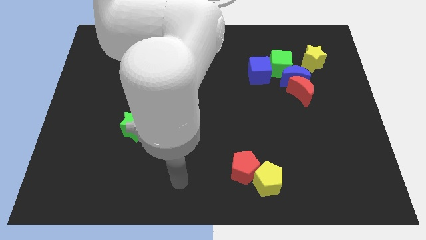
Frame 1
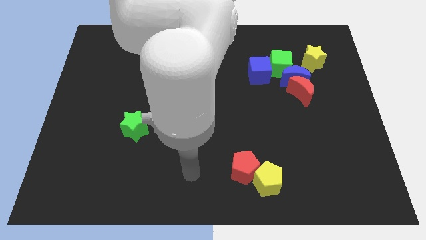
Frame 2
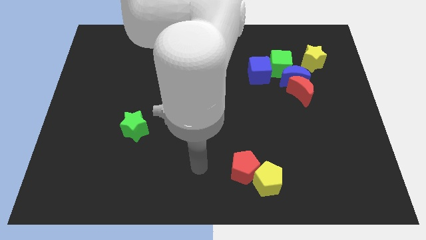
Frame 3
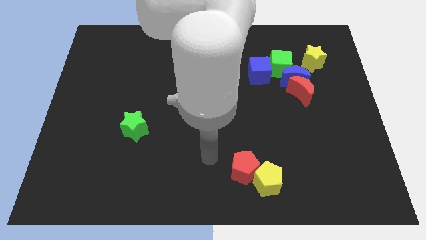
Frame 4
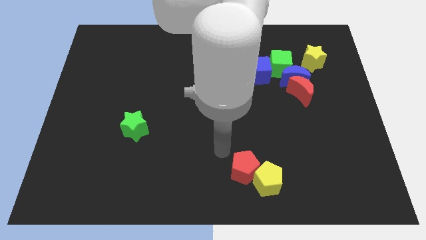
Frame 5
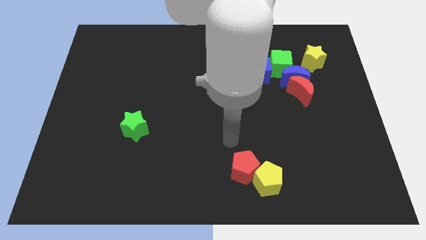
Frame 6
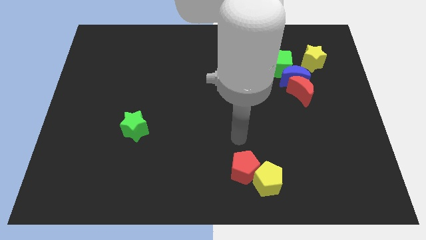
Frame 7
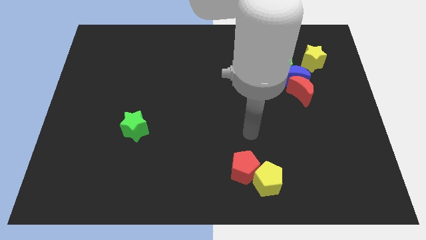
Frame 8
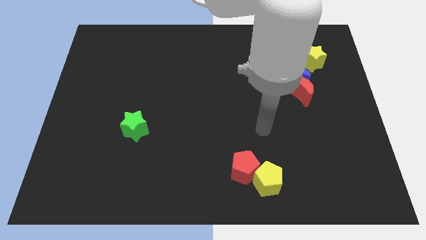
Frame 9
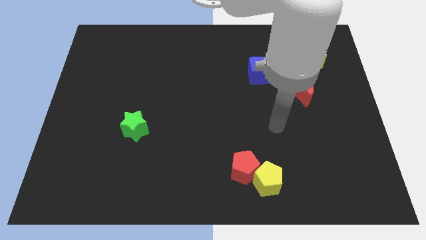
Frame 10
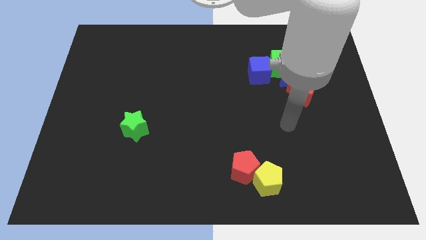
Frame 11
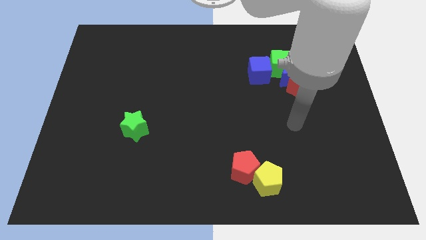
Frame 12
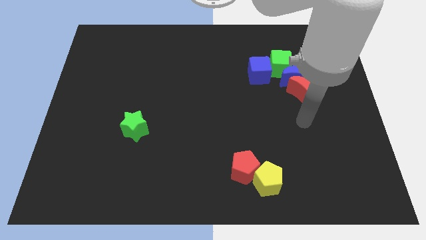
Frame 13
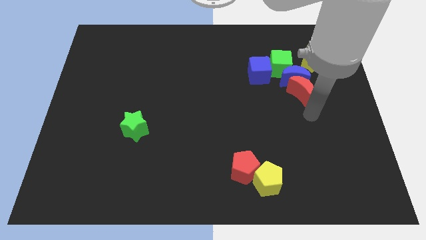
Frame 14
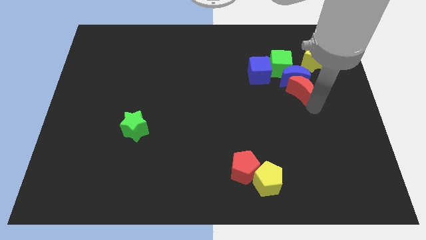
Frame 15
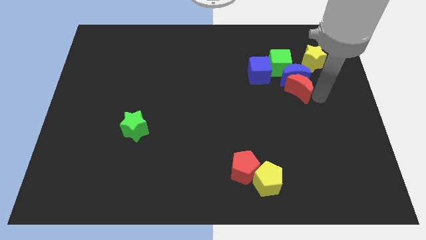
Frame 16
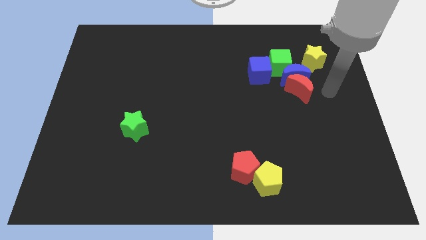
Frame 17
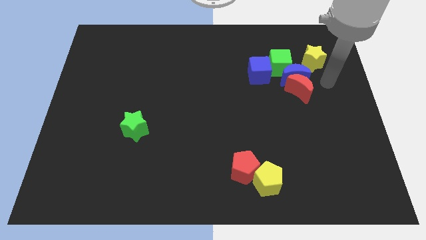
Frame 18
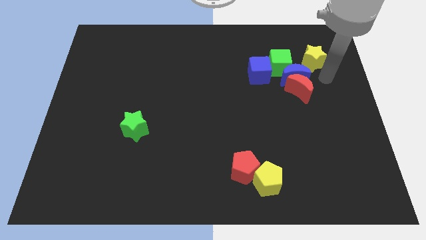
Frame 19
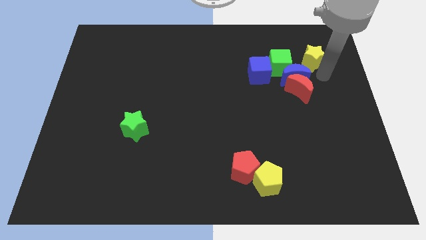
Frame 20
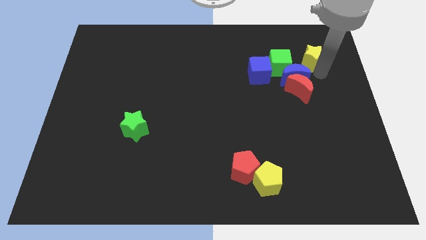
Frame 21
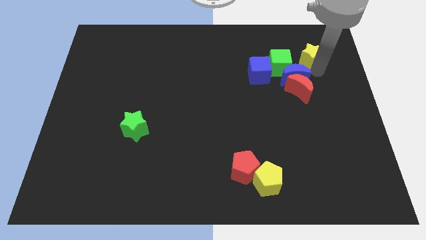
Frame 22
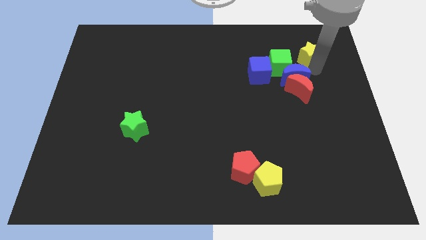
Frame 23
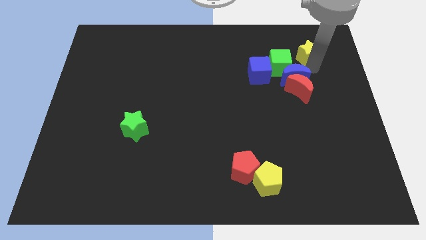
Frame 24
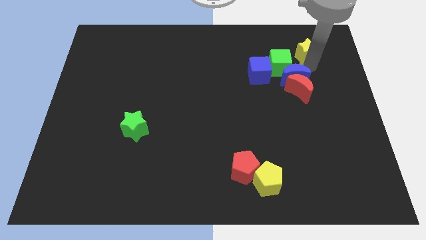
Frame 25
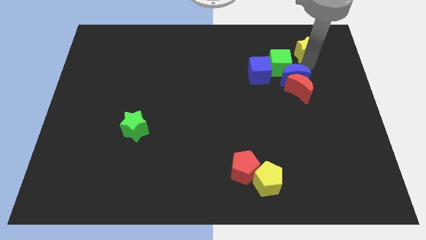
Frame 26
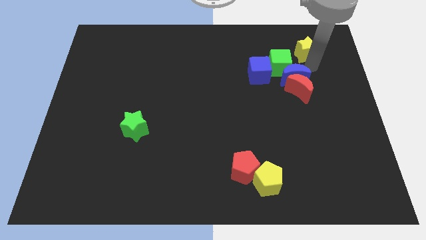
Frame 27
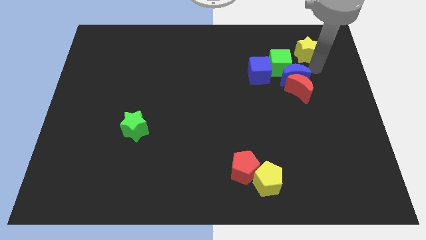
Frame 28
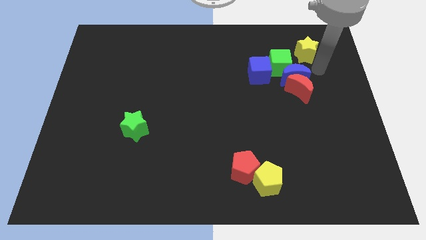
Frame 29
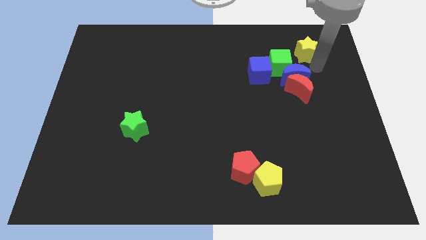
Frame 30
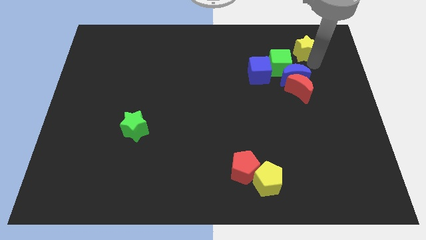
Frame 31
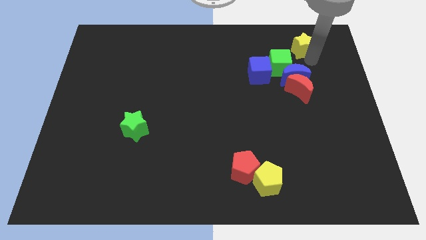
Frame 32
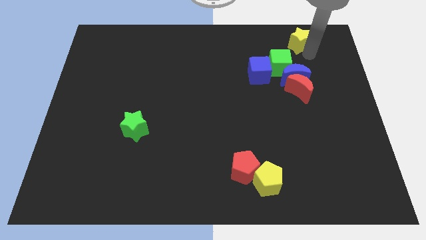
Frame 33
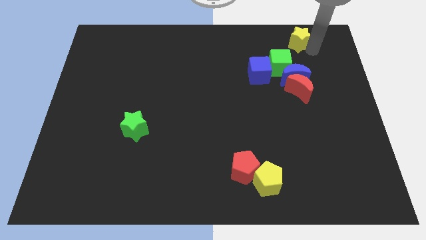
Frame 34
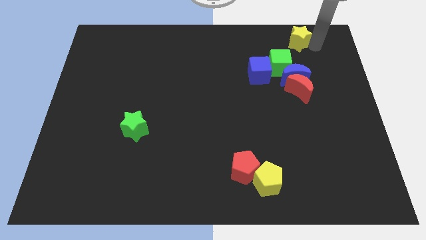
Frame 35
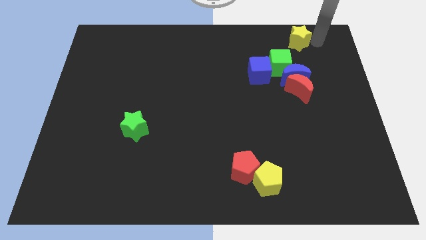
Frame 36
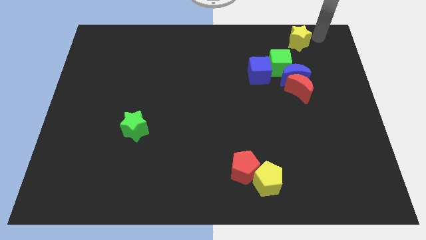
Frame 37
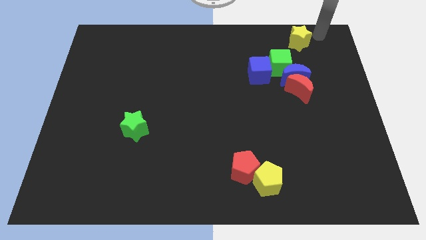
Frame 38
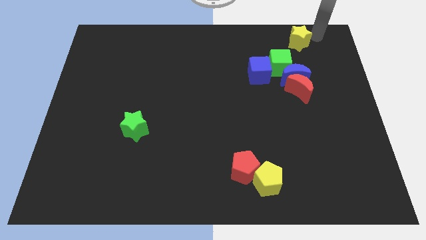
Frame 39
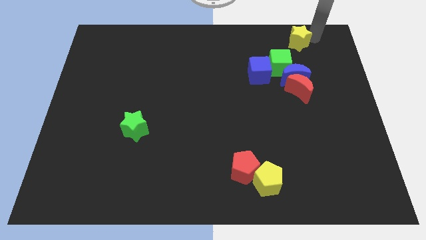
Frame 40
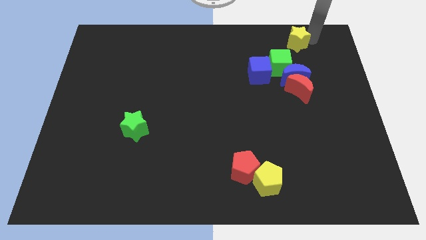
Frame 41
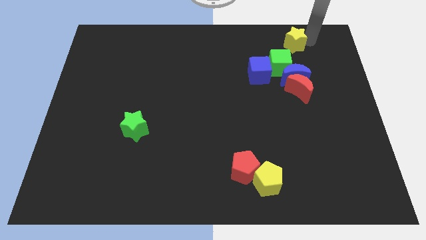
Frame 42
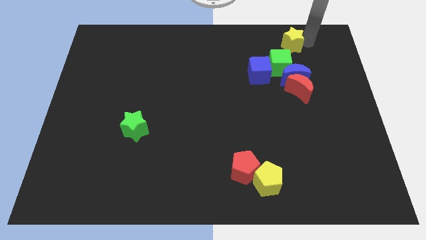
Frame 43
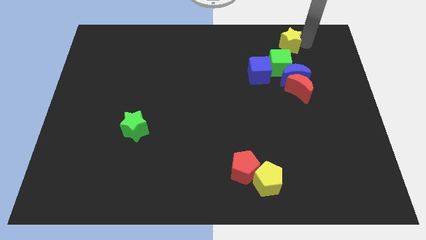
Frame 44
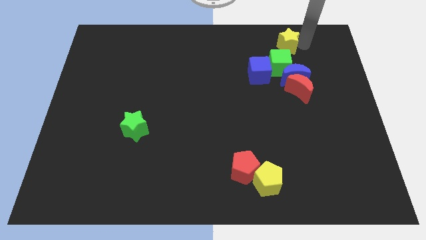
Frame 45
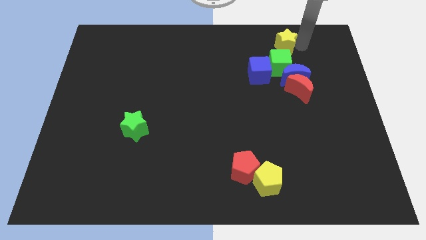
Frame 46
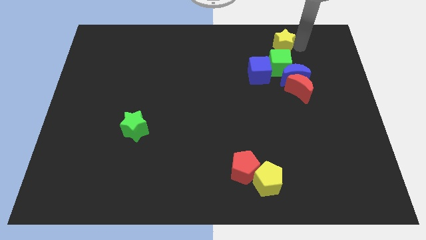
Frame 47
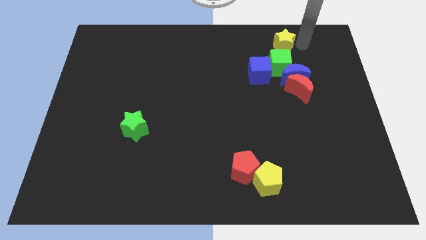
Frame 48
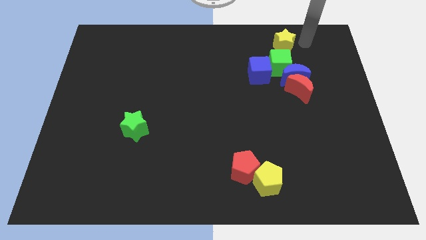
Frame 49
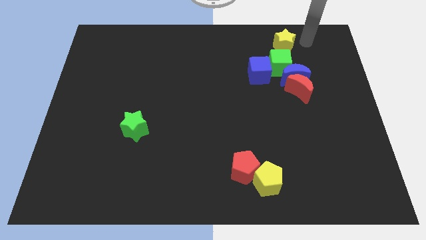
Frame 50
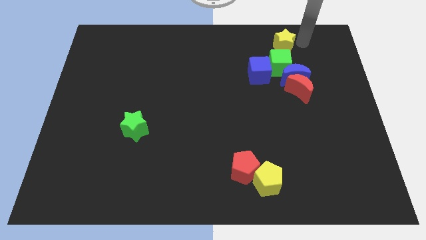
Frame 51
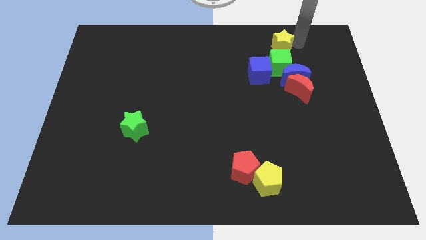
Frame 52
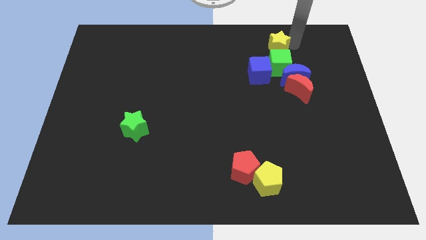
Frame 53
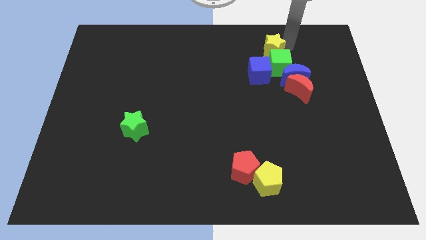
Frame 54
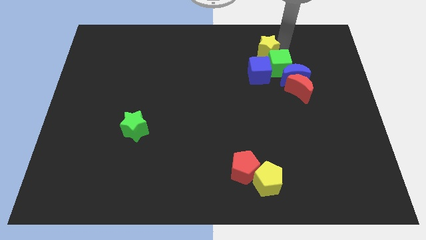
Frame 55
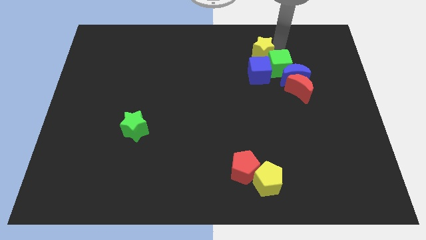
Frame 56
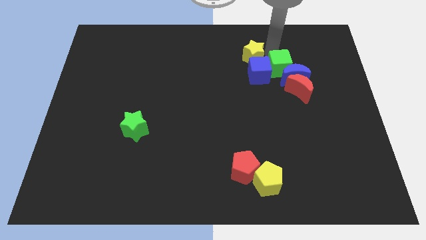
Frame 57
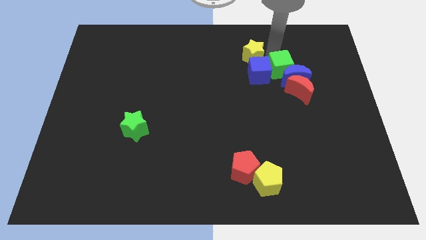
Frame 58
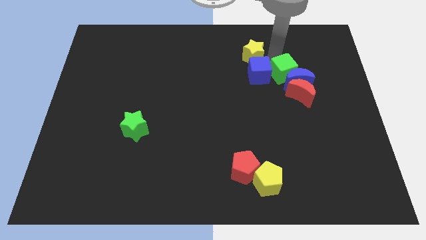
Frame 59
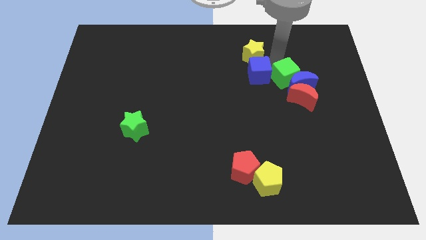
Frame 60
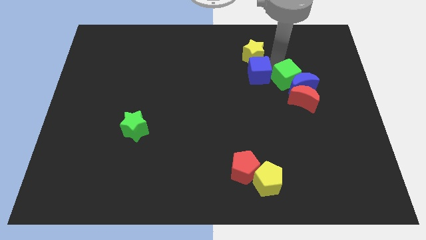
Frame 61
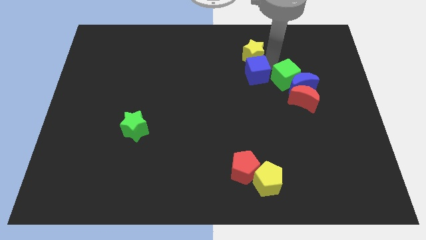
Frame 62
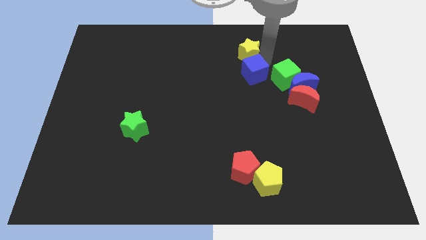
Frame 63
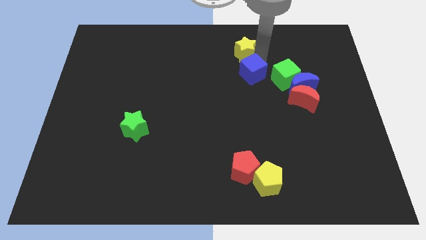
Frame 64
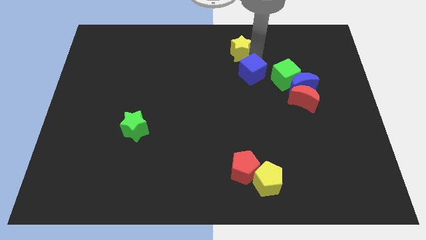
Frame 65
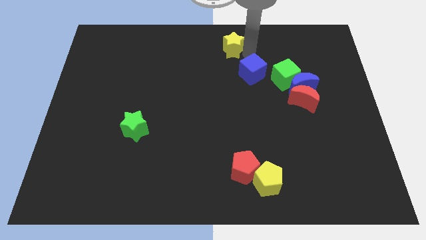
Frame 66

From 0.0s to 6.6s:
slide the yellow star left

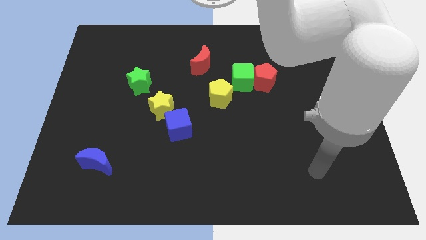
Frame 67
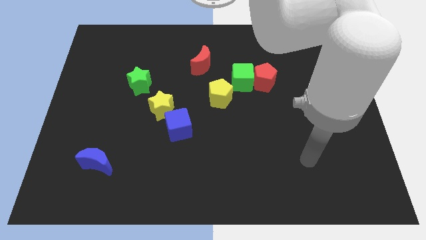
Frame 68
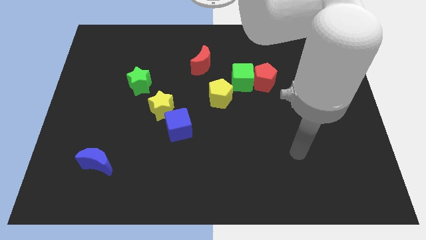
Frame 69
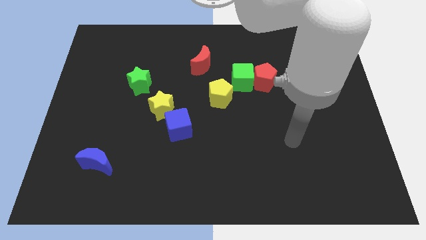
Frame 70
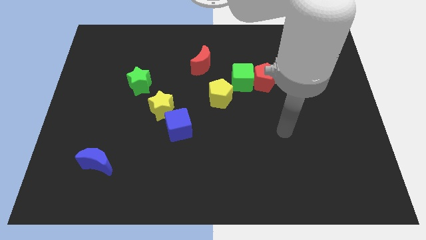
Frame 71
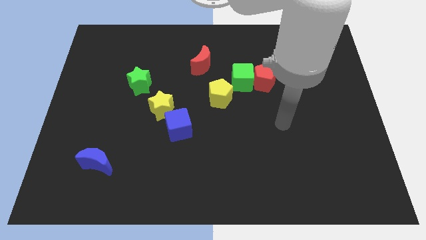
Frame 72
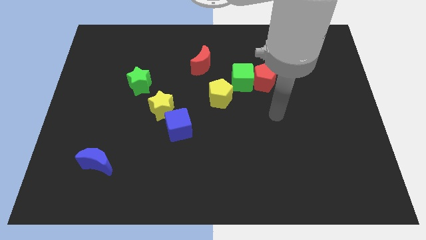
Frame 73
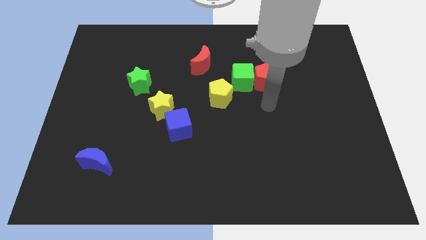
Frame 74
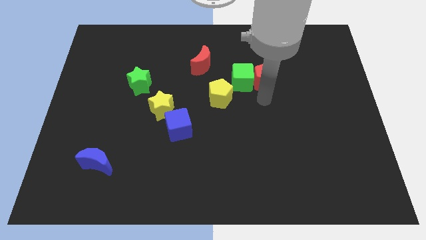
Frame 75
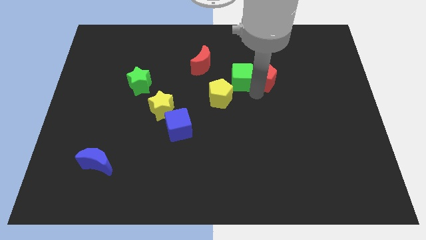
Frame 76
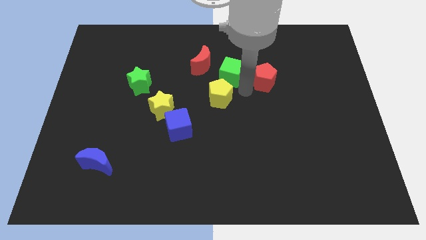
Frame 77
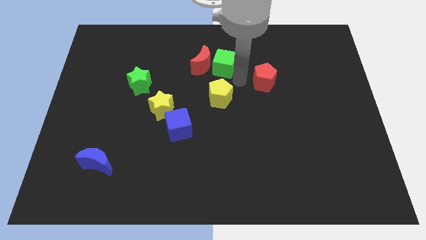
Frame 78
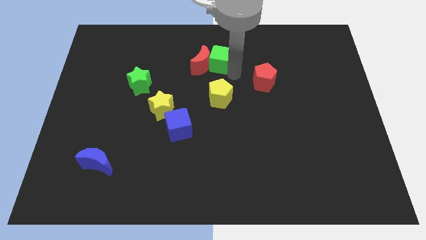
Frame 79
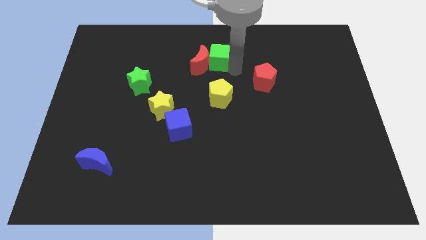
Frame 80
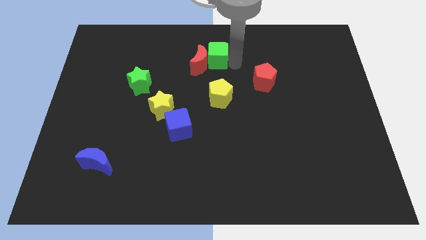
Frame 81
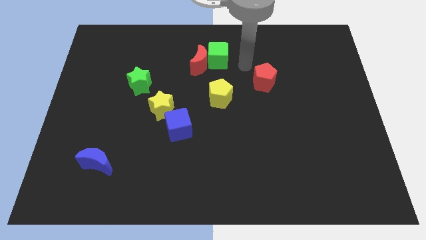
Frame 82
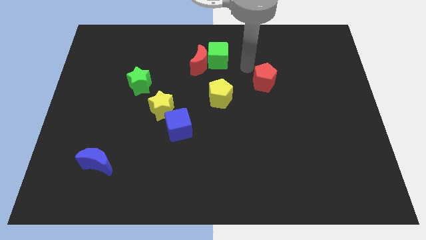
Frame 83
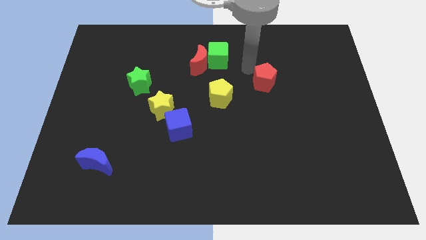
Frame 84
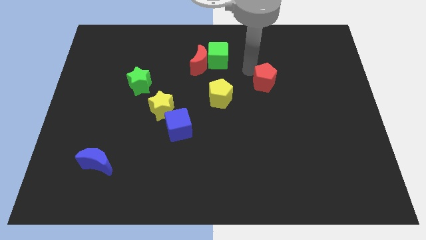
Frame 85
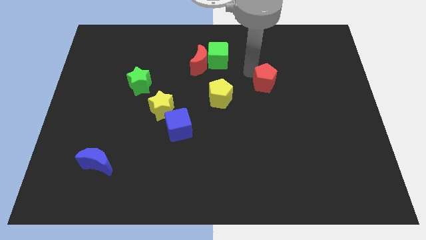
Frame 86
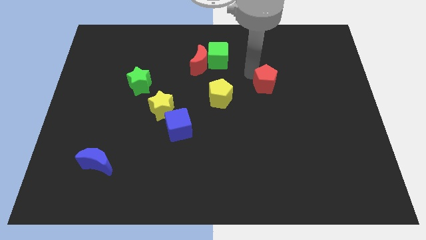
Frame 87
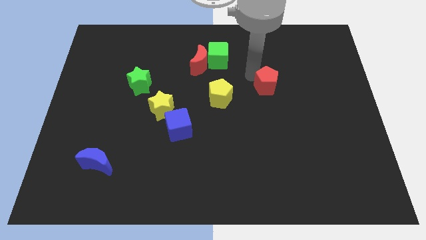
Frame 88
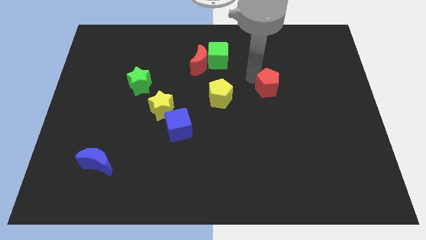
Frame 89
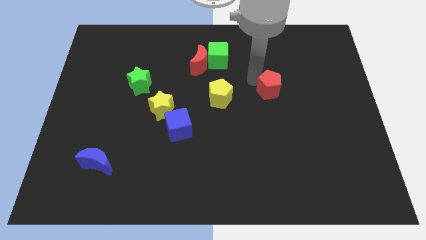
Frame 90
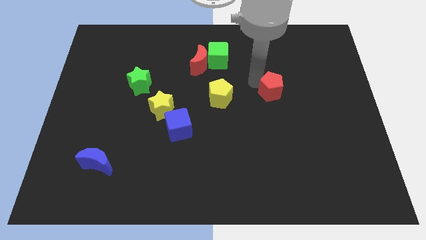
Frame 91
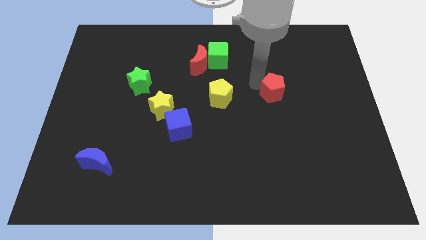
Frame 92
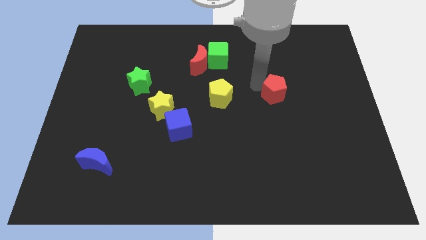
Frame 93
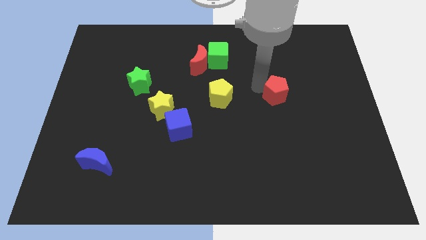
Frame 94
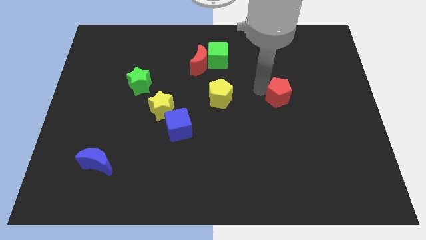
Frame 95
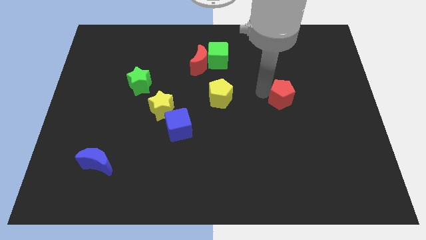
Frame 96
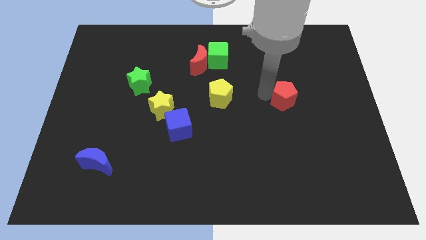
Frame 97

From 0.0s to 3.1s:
move the red pentagon down and then to the right a little
